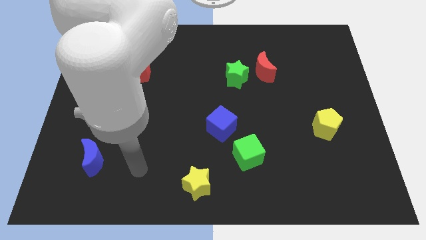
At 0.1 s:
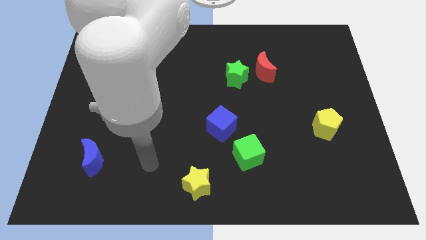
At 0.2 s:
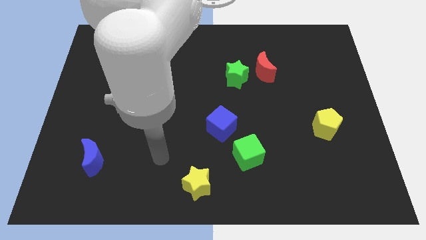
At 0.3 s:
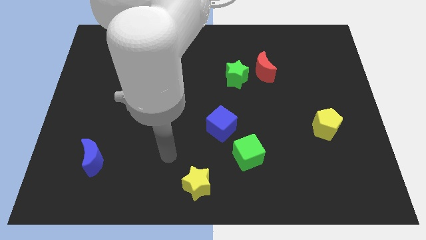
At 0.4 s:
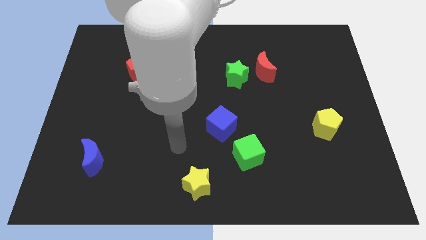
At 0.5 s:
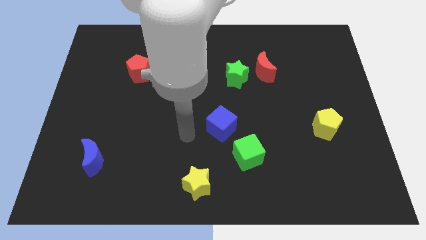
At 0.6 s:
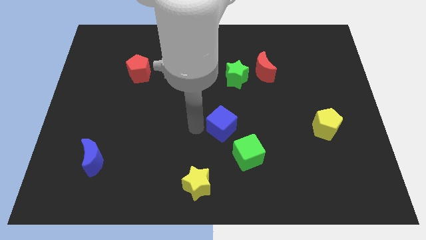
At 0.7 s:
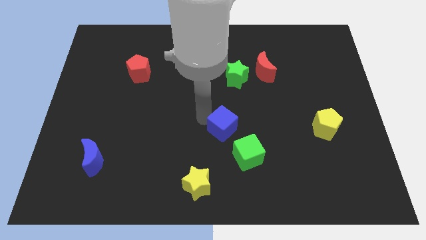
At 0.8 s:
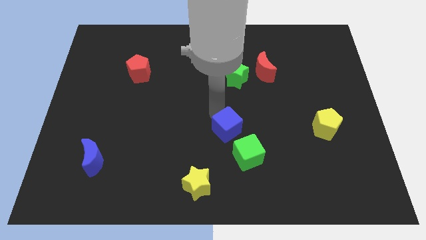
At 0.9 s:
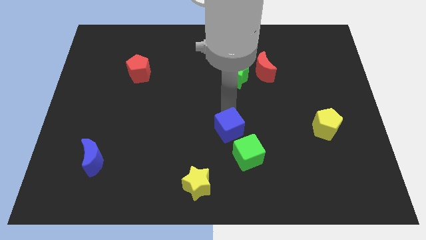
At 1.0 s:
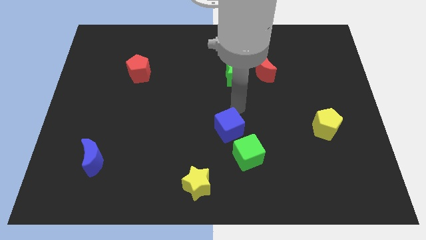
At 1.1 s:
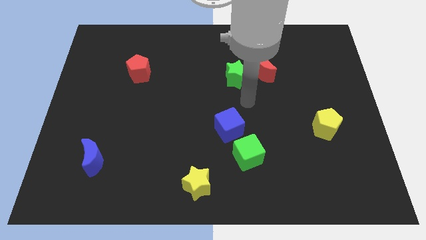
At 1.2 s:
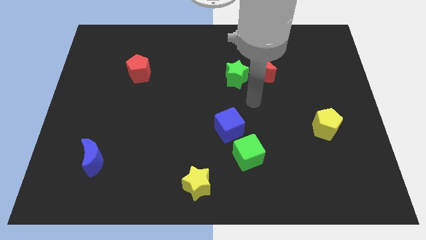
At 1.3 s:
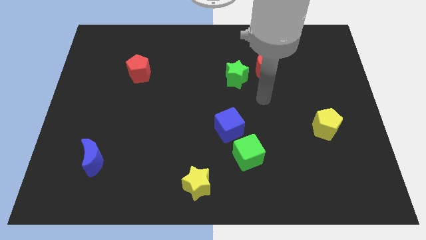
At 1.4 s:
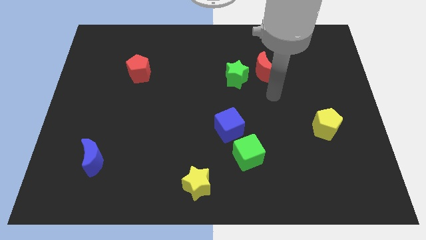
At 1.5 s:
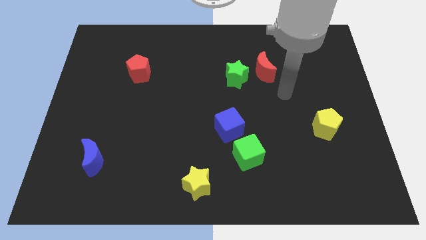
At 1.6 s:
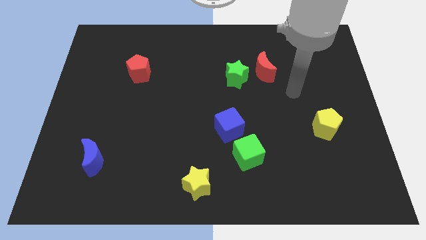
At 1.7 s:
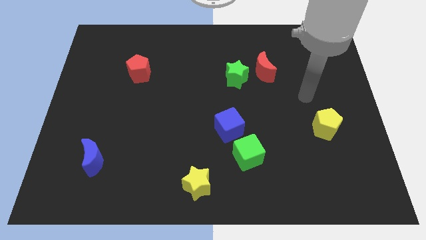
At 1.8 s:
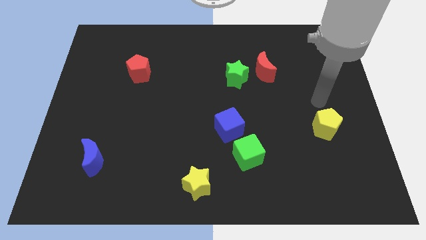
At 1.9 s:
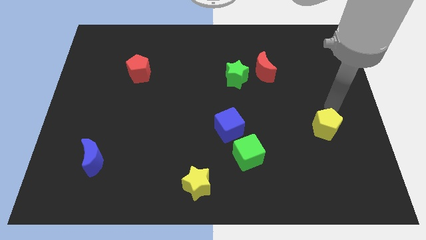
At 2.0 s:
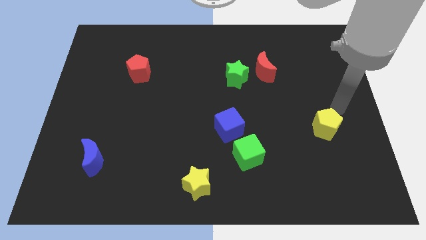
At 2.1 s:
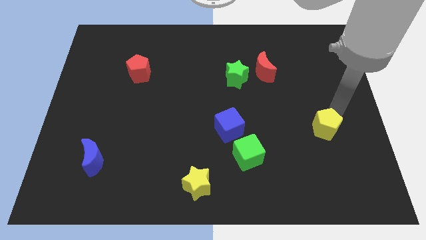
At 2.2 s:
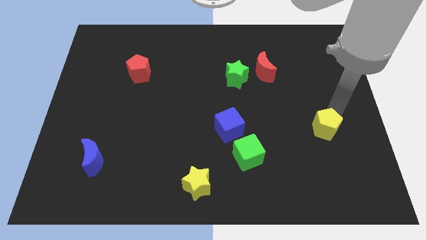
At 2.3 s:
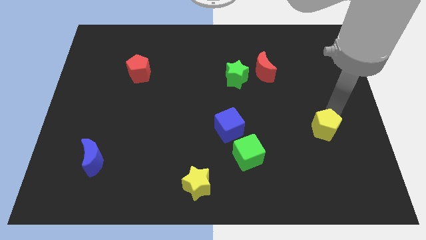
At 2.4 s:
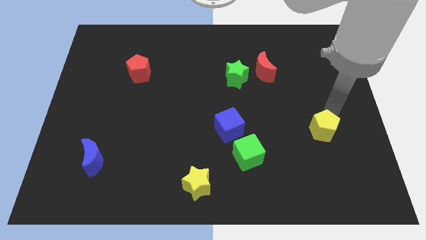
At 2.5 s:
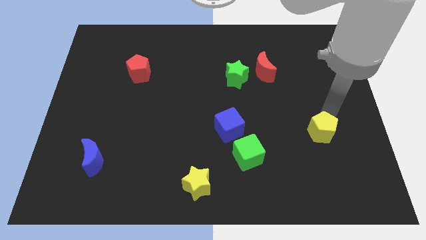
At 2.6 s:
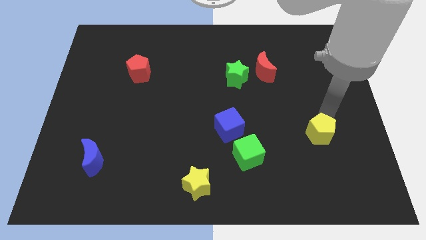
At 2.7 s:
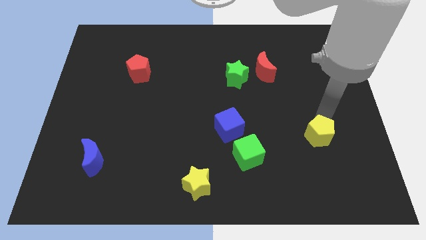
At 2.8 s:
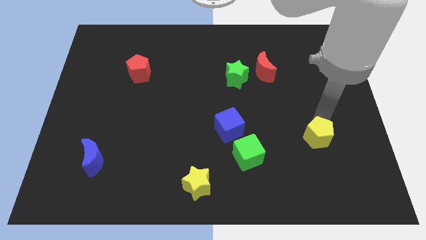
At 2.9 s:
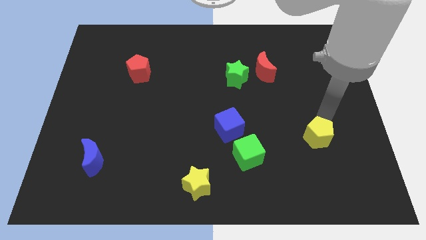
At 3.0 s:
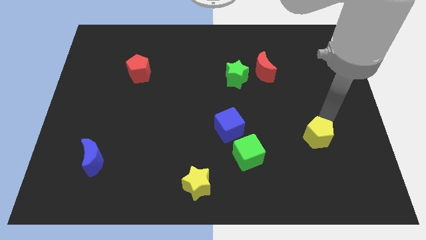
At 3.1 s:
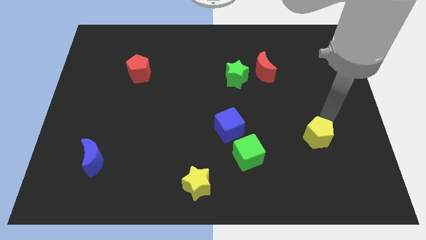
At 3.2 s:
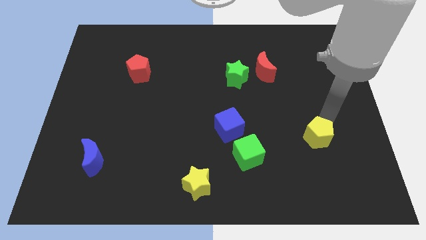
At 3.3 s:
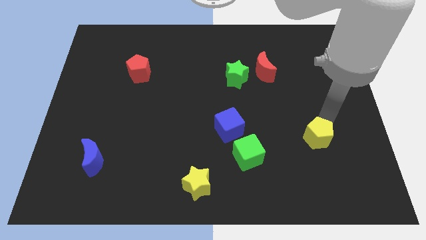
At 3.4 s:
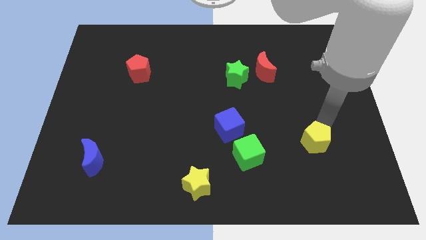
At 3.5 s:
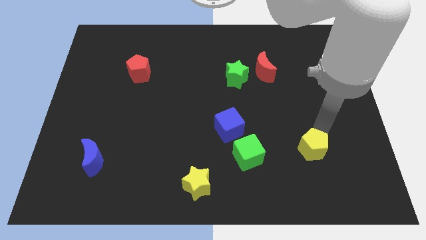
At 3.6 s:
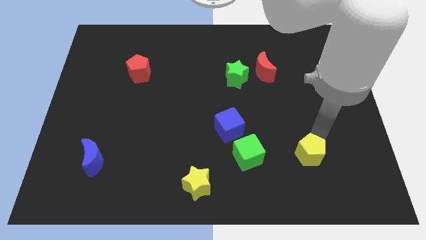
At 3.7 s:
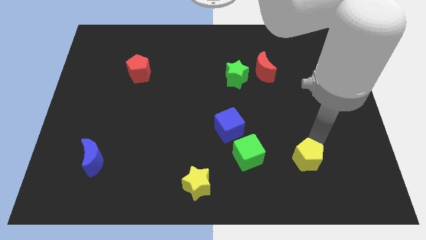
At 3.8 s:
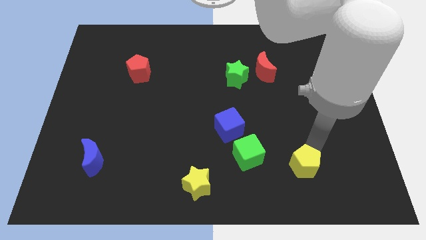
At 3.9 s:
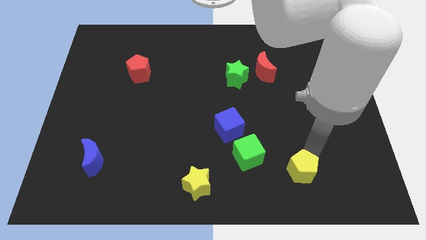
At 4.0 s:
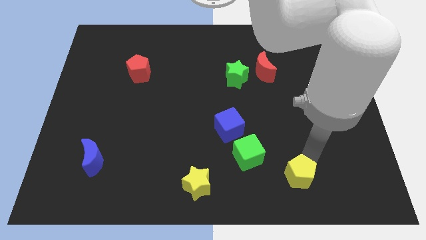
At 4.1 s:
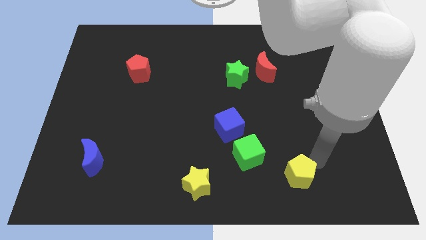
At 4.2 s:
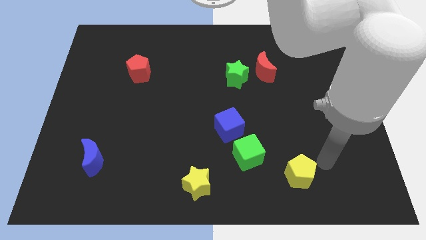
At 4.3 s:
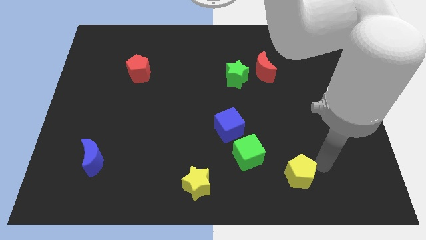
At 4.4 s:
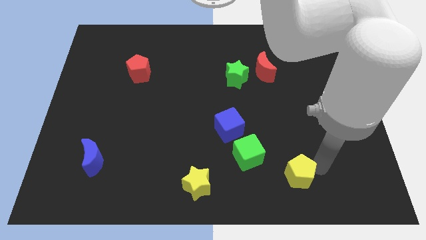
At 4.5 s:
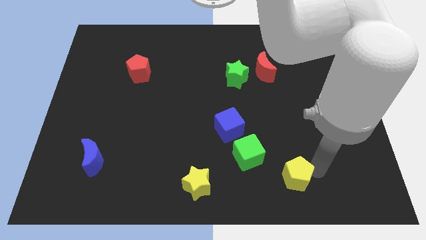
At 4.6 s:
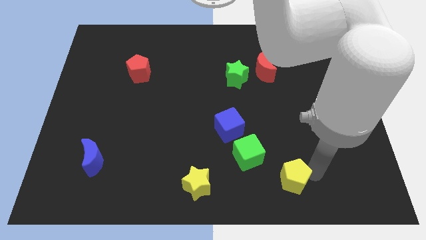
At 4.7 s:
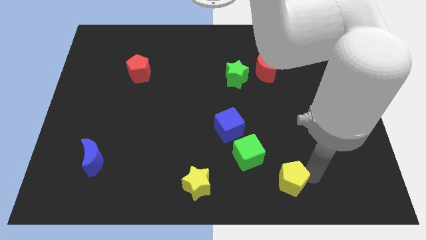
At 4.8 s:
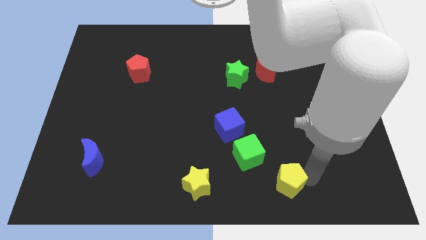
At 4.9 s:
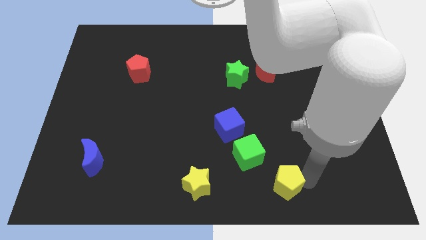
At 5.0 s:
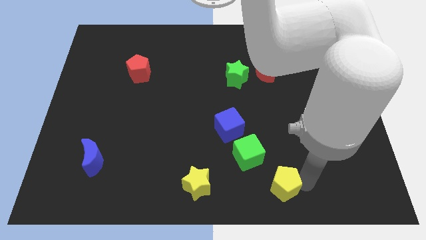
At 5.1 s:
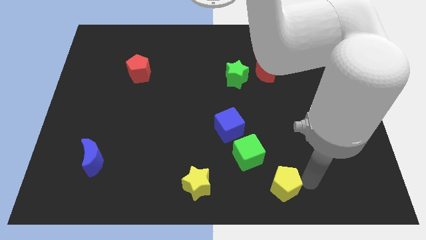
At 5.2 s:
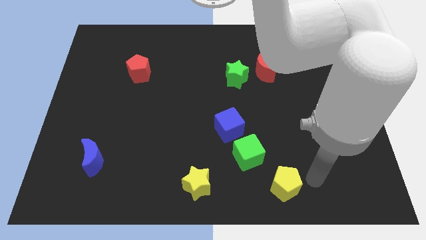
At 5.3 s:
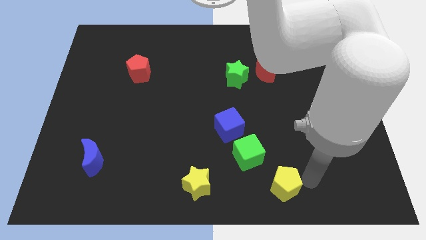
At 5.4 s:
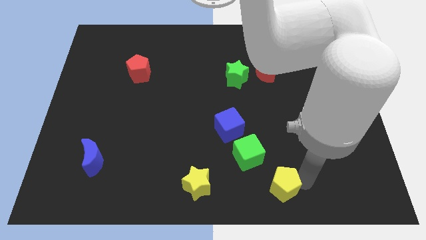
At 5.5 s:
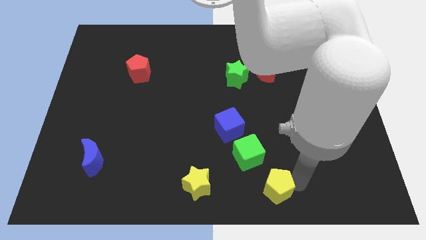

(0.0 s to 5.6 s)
put the yellow pentagon to the bottom side
